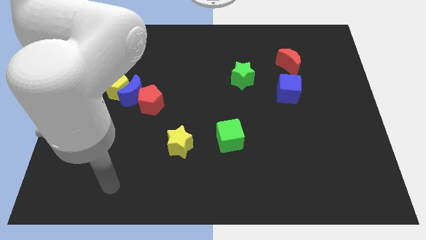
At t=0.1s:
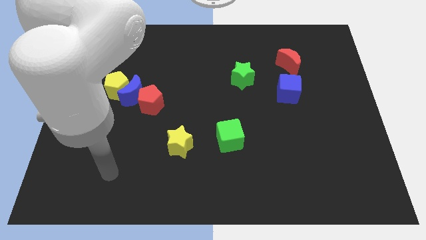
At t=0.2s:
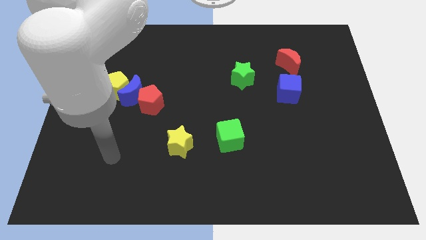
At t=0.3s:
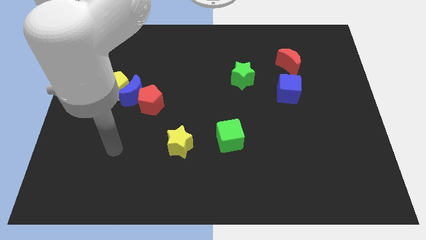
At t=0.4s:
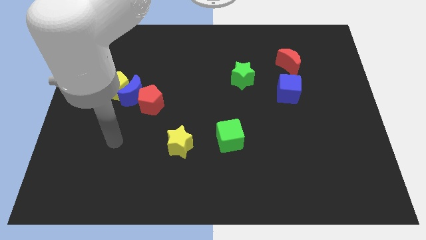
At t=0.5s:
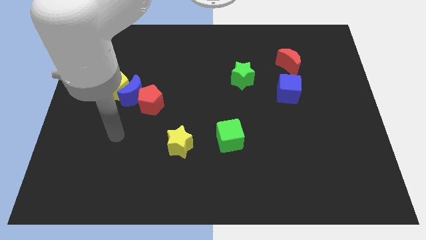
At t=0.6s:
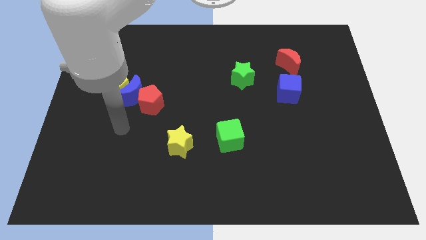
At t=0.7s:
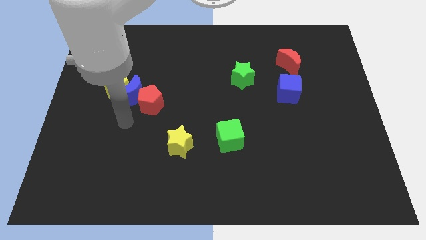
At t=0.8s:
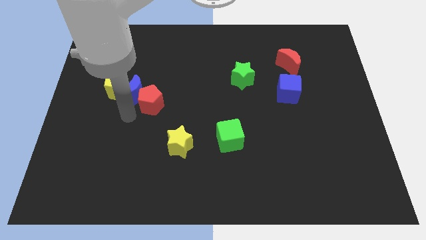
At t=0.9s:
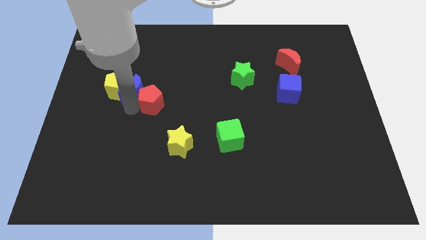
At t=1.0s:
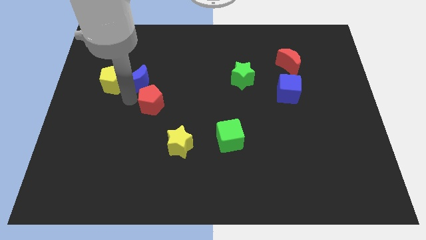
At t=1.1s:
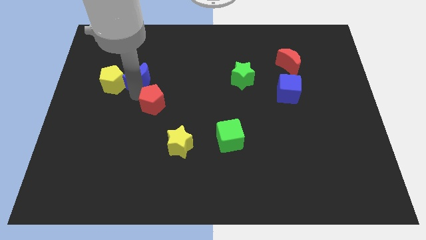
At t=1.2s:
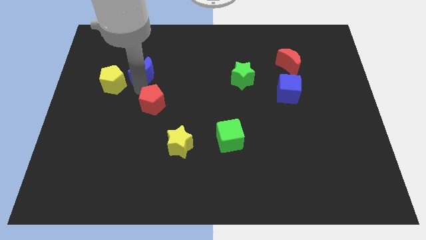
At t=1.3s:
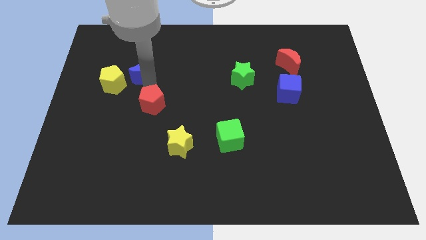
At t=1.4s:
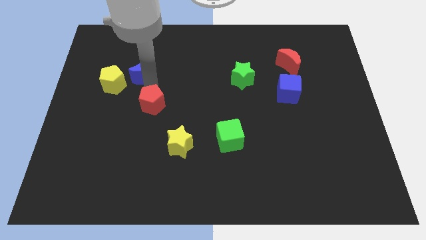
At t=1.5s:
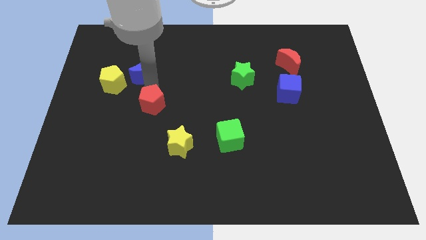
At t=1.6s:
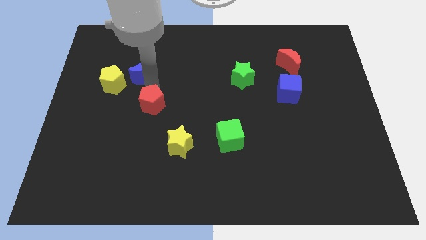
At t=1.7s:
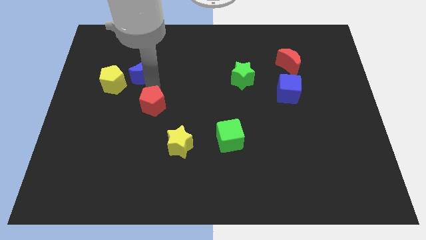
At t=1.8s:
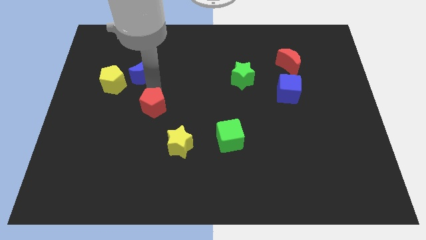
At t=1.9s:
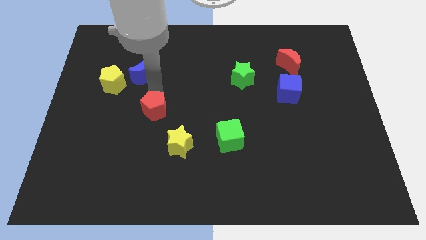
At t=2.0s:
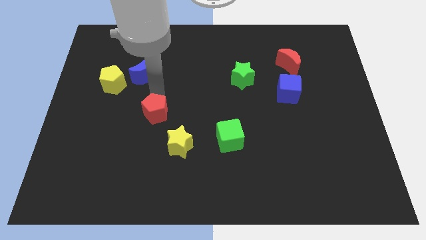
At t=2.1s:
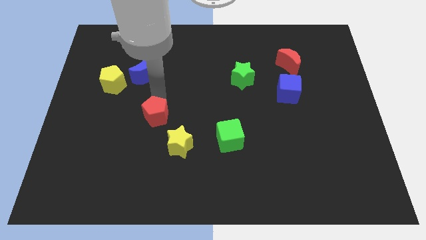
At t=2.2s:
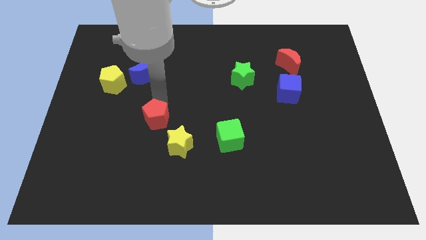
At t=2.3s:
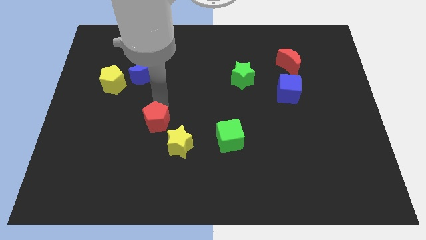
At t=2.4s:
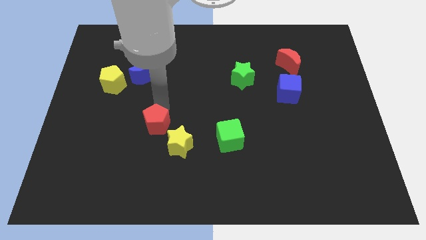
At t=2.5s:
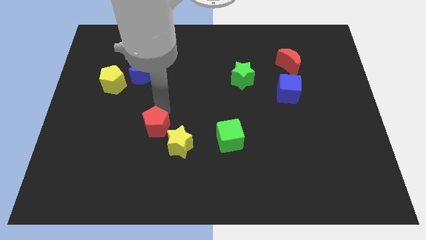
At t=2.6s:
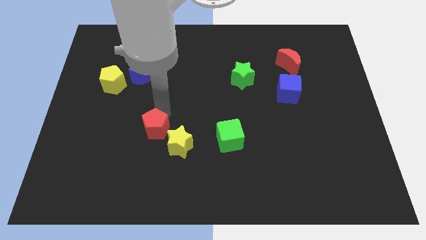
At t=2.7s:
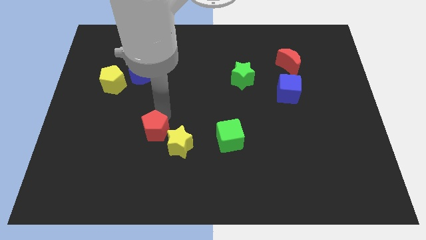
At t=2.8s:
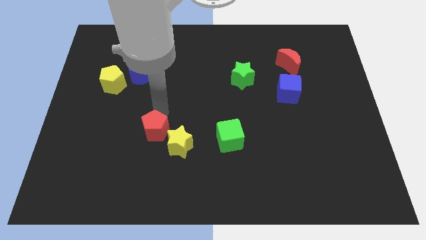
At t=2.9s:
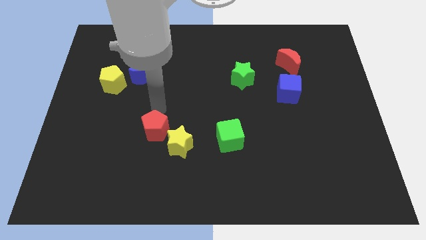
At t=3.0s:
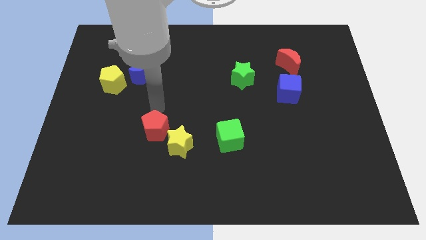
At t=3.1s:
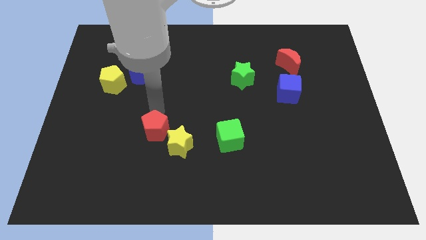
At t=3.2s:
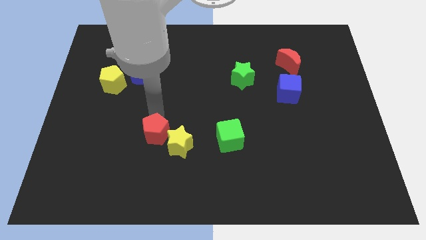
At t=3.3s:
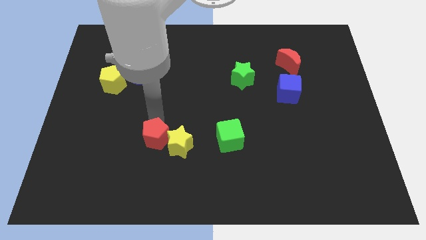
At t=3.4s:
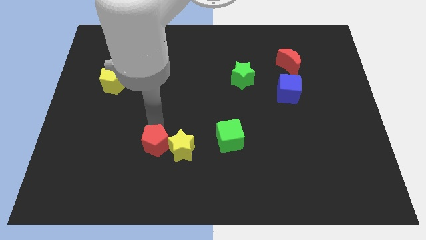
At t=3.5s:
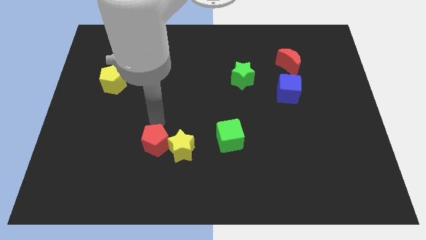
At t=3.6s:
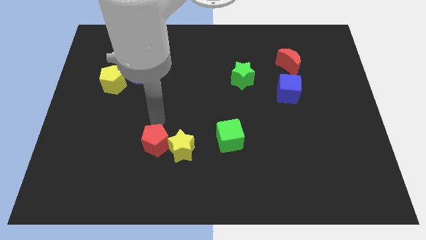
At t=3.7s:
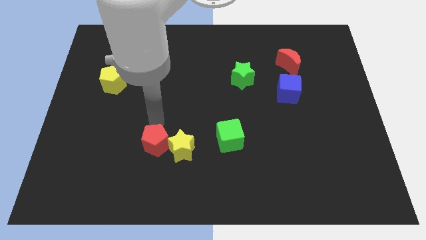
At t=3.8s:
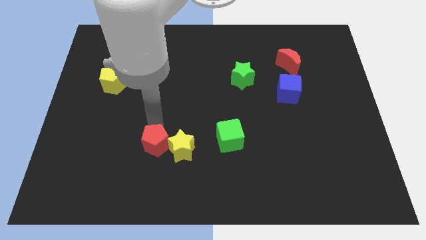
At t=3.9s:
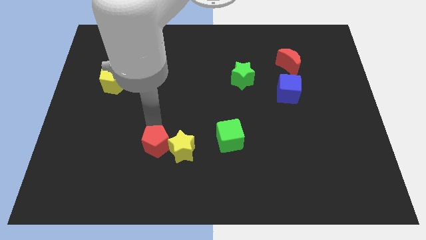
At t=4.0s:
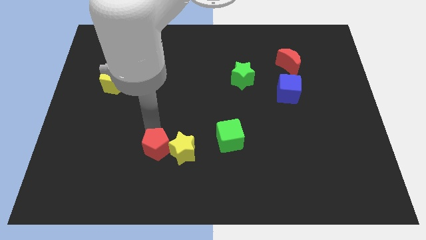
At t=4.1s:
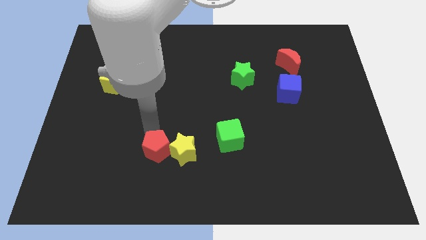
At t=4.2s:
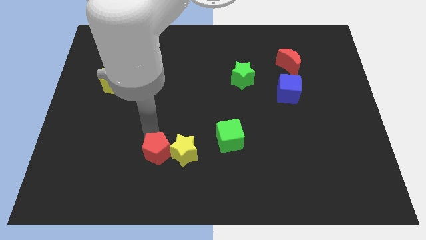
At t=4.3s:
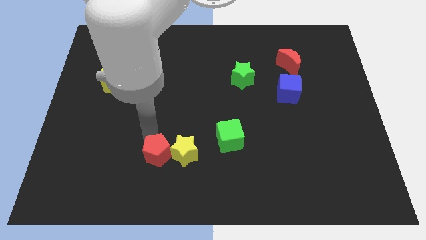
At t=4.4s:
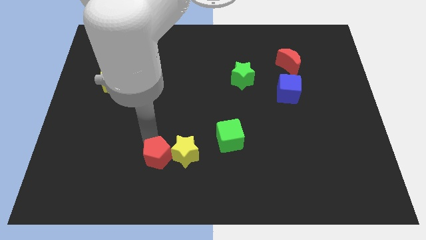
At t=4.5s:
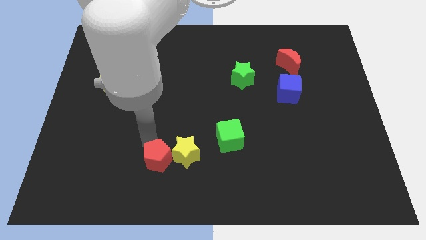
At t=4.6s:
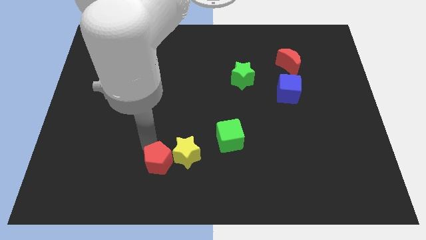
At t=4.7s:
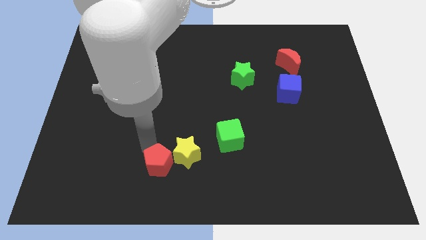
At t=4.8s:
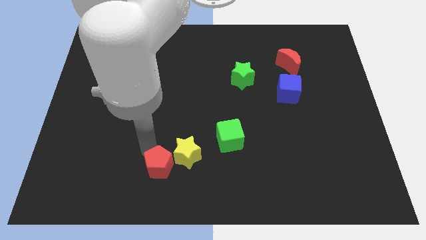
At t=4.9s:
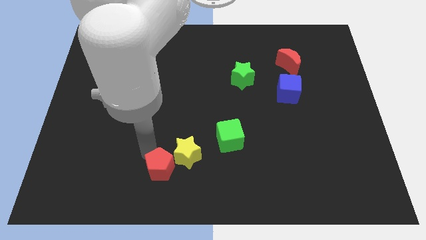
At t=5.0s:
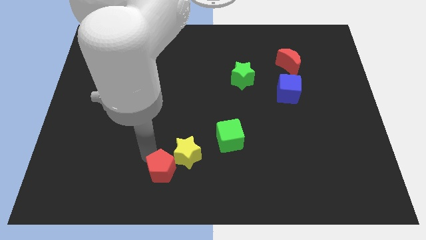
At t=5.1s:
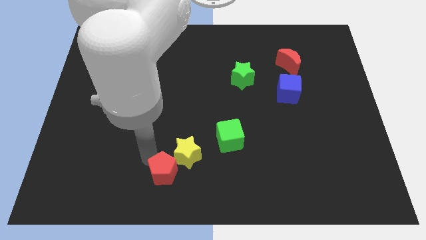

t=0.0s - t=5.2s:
move the red pentagon to the bottom side

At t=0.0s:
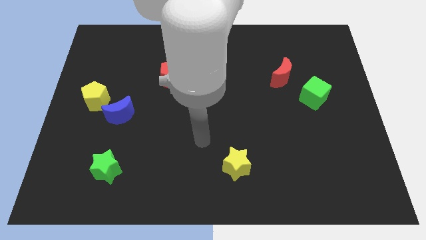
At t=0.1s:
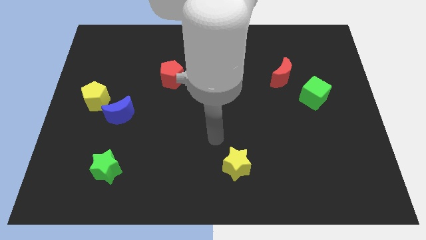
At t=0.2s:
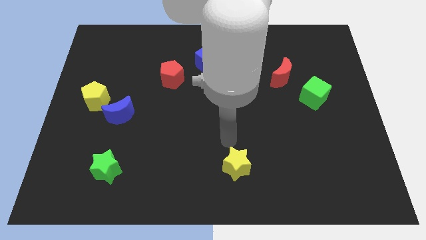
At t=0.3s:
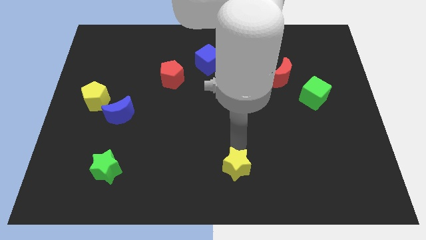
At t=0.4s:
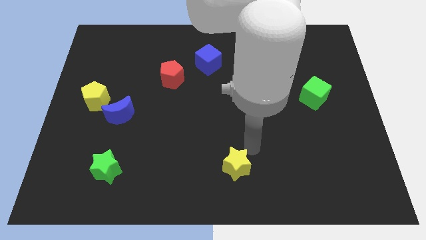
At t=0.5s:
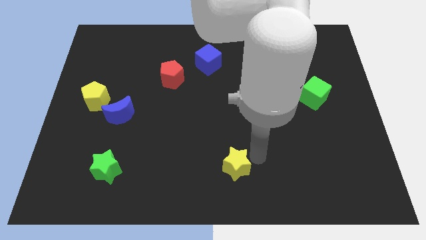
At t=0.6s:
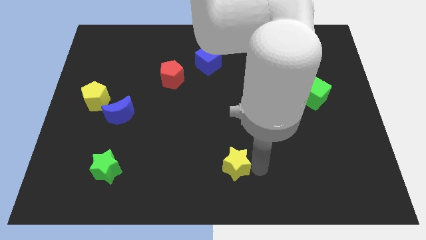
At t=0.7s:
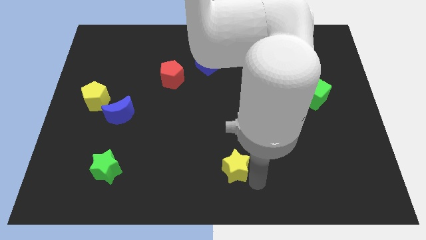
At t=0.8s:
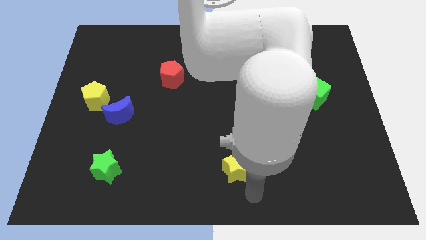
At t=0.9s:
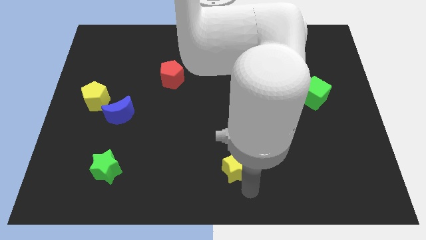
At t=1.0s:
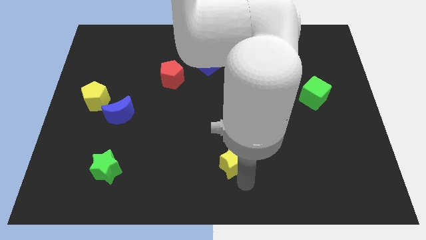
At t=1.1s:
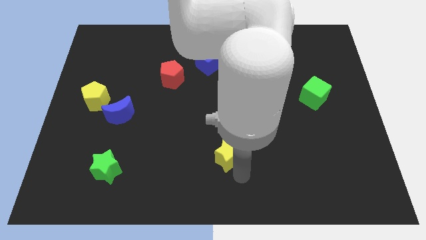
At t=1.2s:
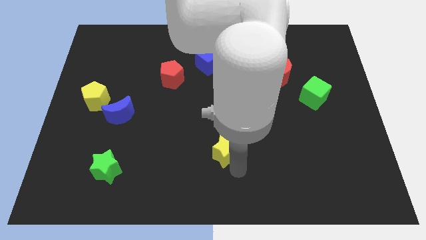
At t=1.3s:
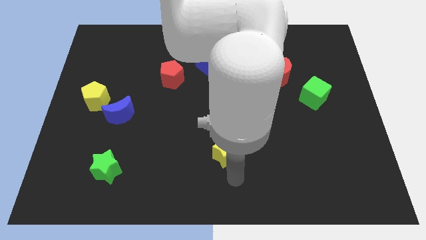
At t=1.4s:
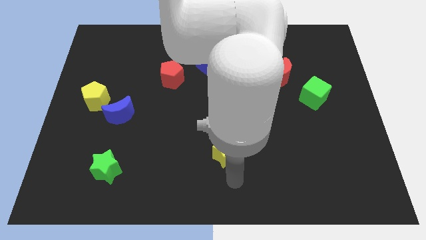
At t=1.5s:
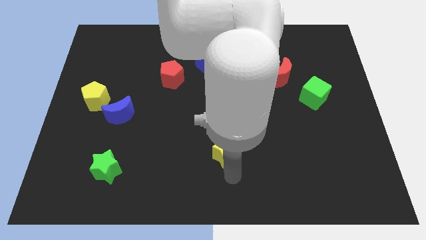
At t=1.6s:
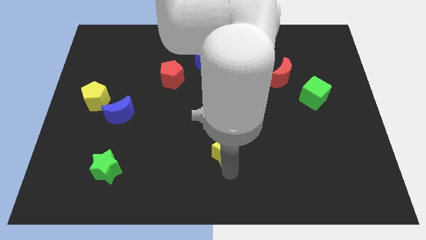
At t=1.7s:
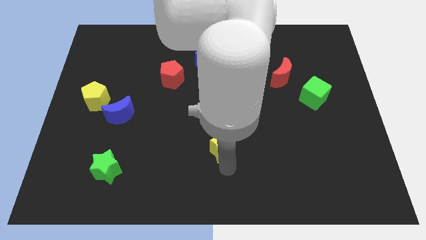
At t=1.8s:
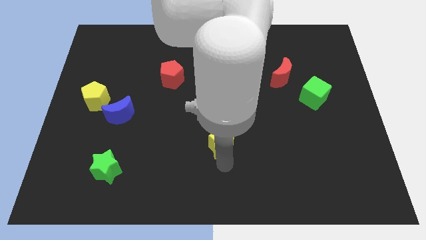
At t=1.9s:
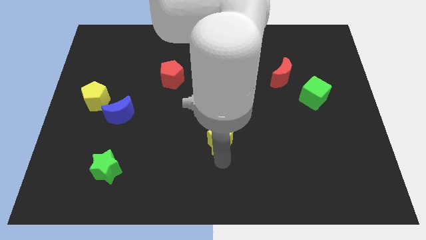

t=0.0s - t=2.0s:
push the yellow star to the center of the board
